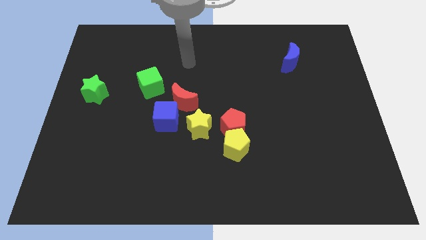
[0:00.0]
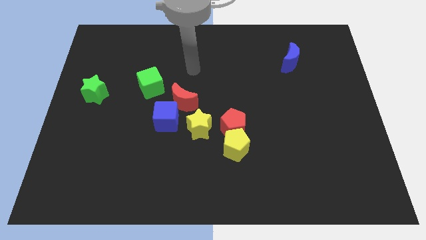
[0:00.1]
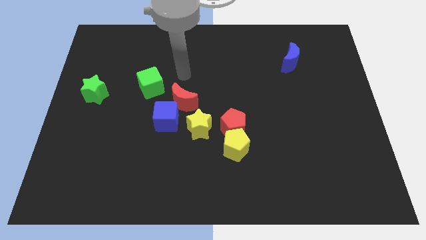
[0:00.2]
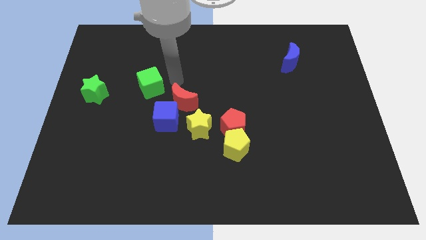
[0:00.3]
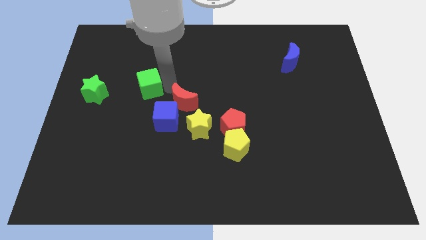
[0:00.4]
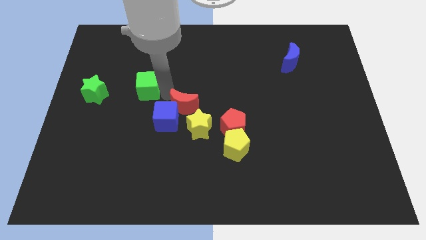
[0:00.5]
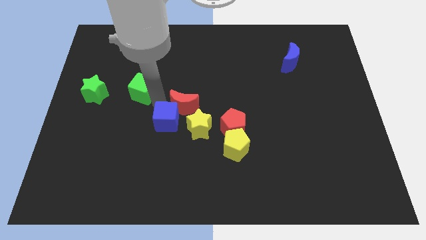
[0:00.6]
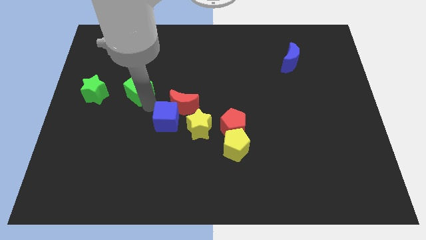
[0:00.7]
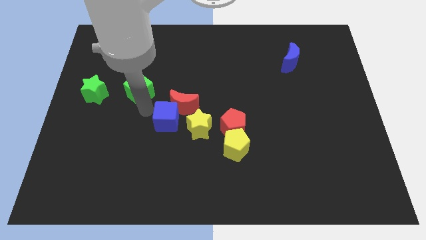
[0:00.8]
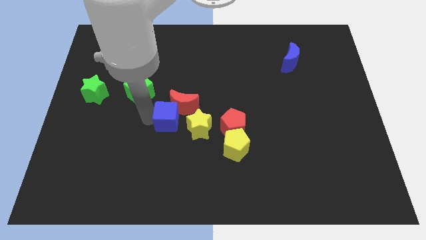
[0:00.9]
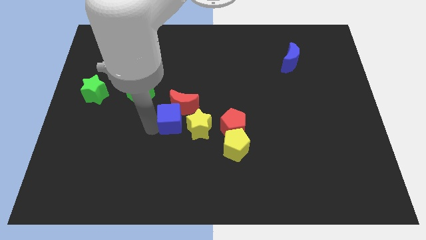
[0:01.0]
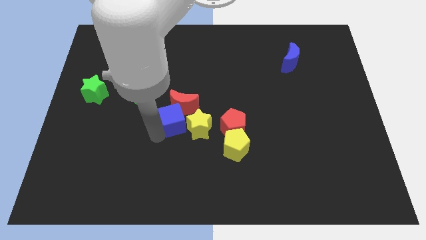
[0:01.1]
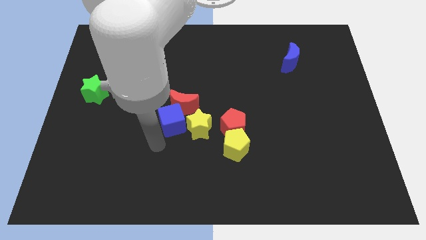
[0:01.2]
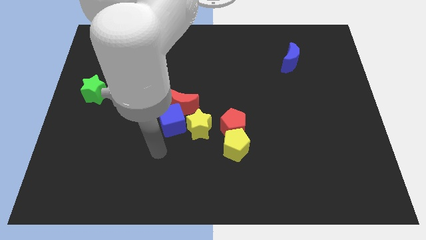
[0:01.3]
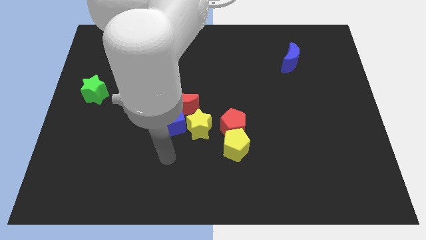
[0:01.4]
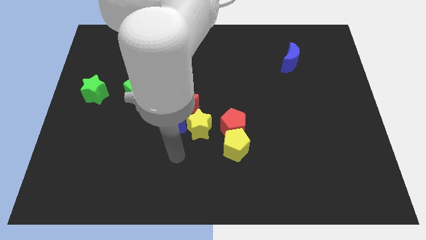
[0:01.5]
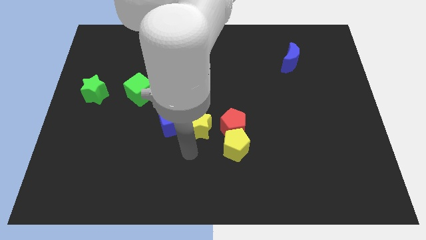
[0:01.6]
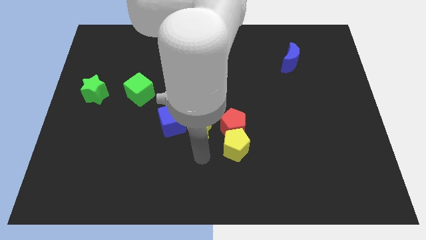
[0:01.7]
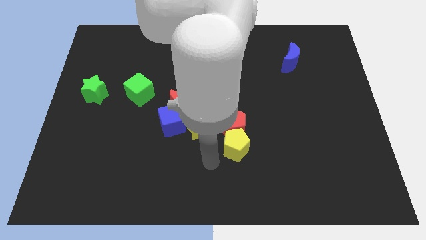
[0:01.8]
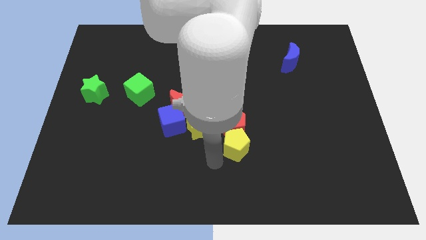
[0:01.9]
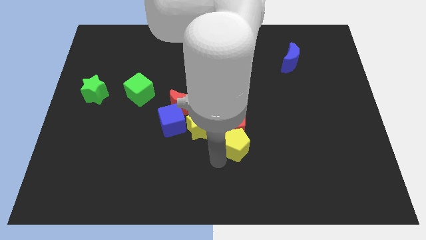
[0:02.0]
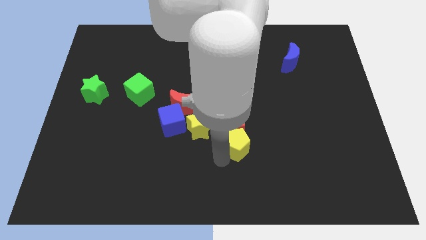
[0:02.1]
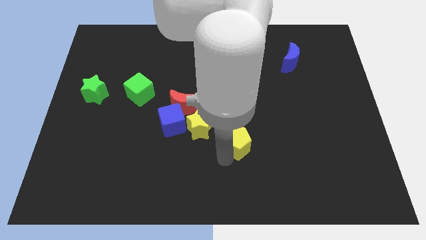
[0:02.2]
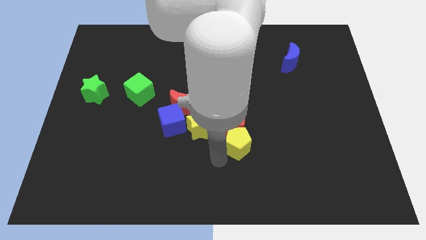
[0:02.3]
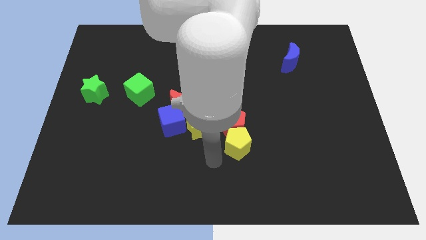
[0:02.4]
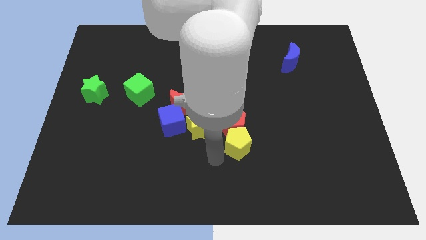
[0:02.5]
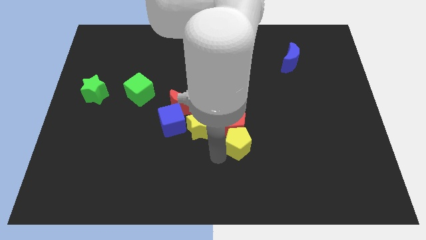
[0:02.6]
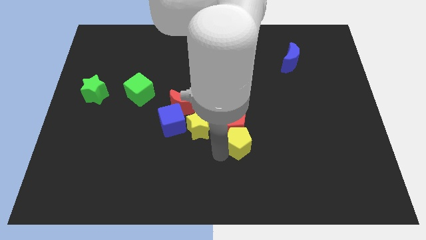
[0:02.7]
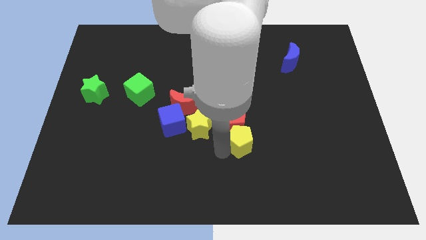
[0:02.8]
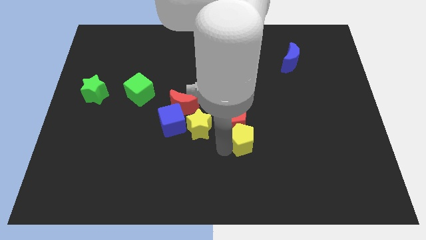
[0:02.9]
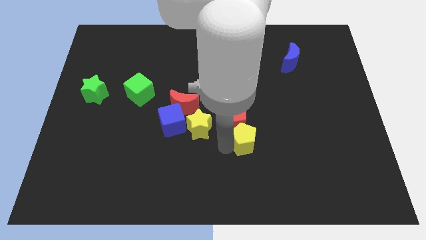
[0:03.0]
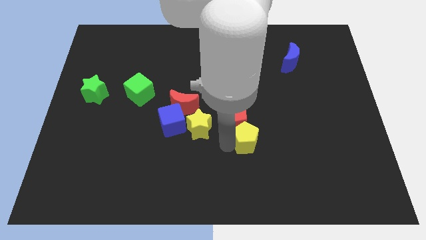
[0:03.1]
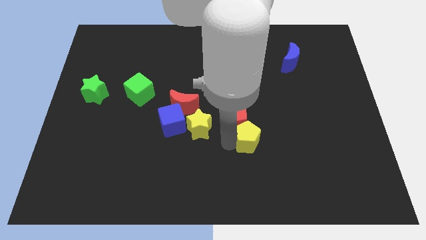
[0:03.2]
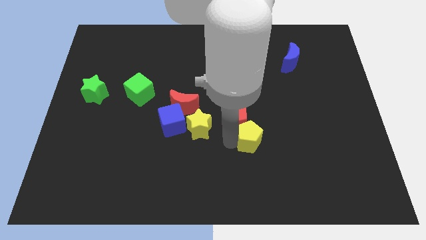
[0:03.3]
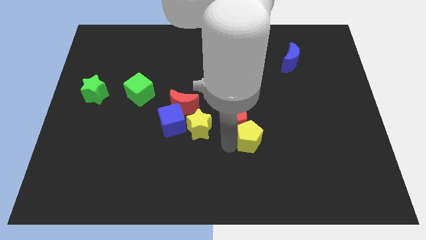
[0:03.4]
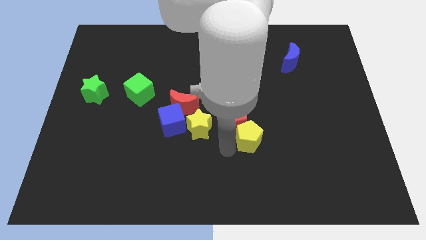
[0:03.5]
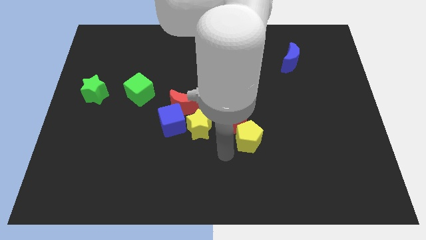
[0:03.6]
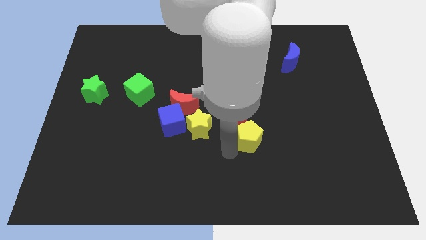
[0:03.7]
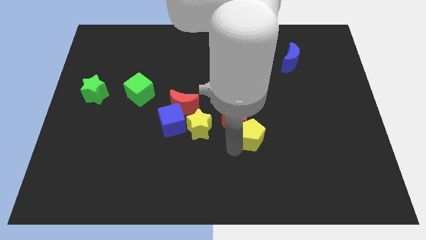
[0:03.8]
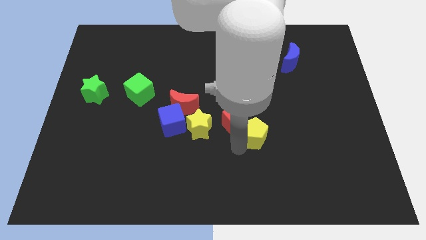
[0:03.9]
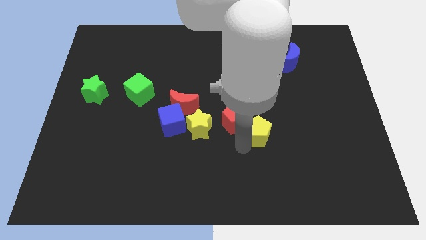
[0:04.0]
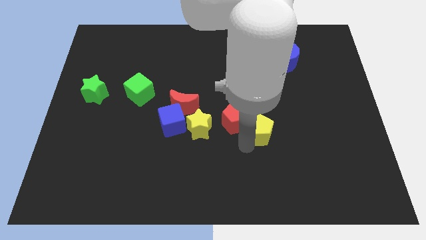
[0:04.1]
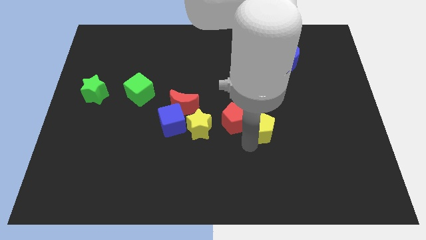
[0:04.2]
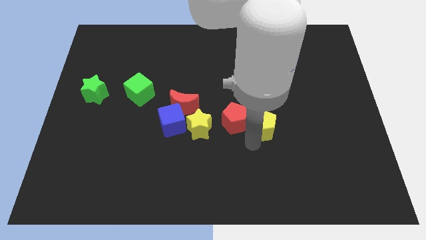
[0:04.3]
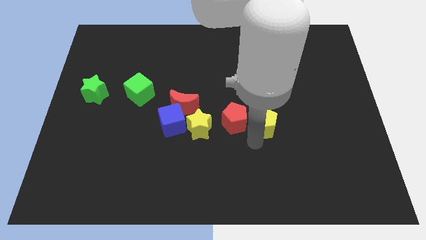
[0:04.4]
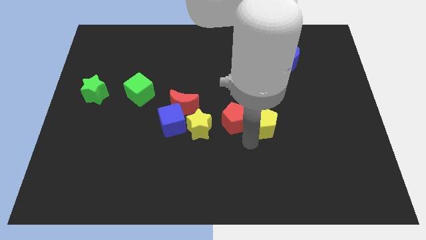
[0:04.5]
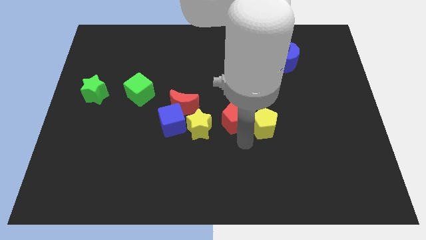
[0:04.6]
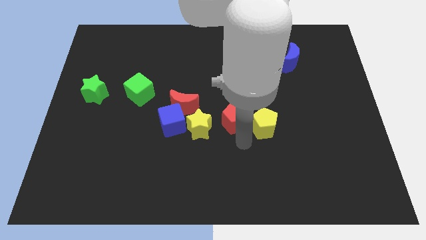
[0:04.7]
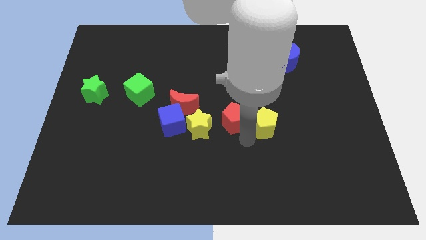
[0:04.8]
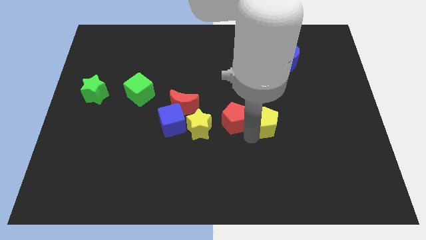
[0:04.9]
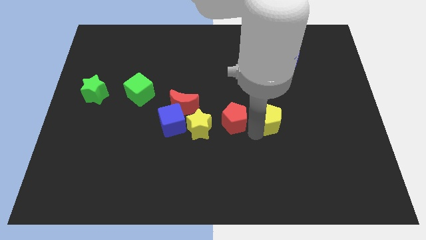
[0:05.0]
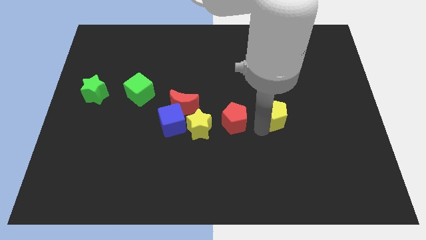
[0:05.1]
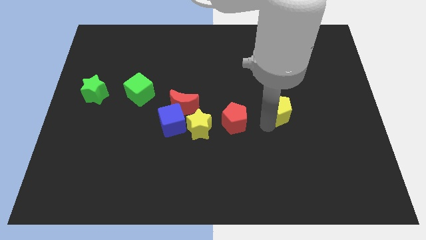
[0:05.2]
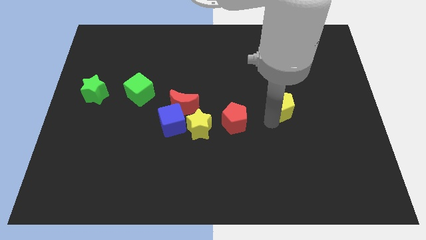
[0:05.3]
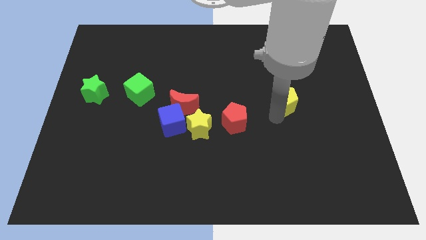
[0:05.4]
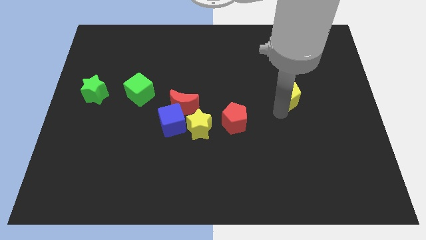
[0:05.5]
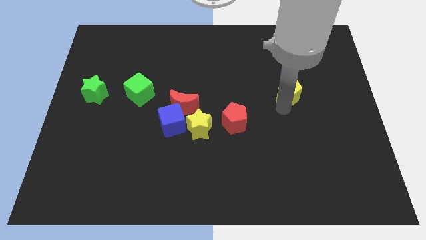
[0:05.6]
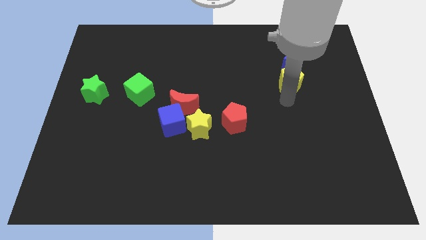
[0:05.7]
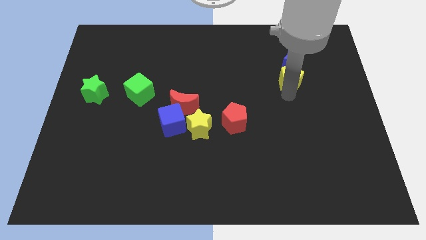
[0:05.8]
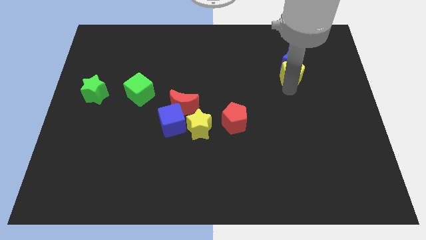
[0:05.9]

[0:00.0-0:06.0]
push the yellow pentagon next to the blue moon

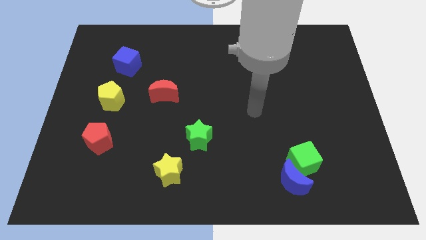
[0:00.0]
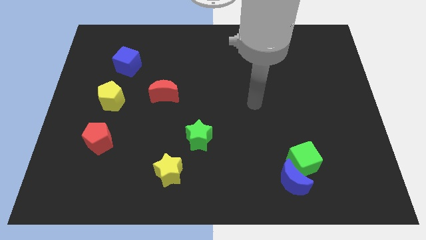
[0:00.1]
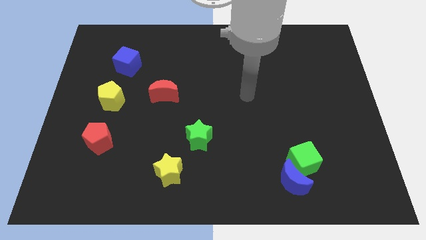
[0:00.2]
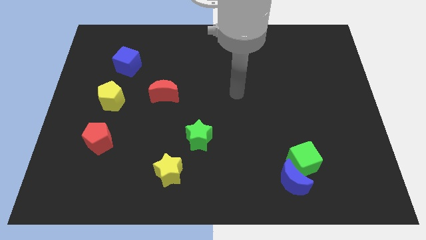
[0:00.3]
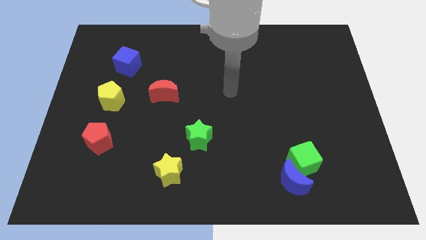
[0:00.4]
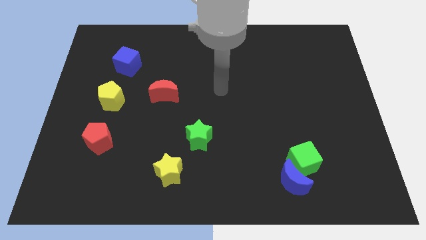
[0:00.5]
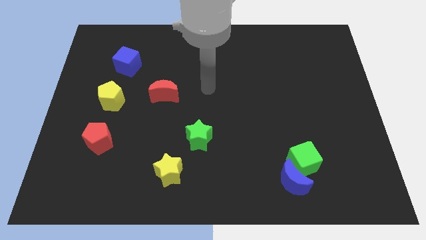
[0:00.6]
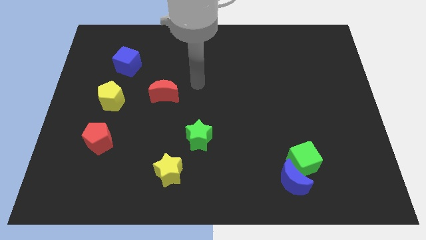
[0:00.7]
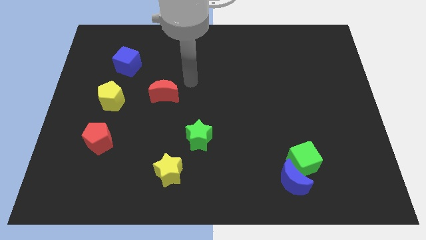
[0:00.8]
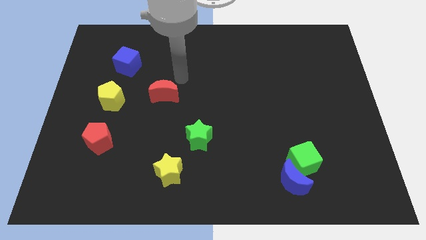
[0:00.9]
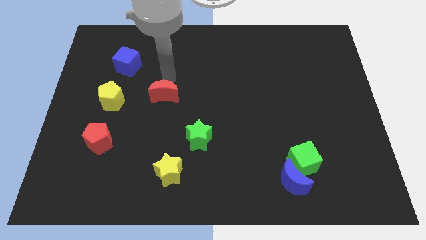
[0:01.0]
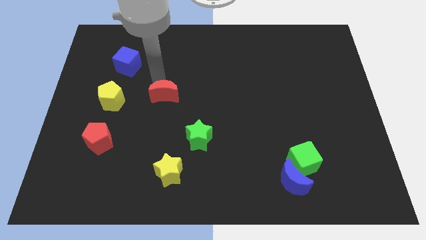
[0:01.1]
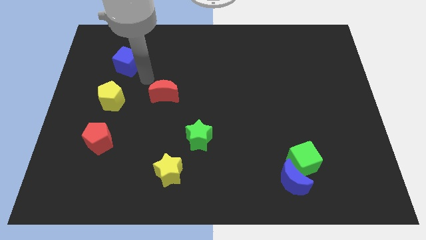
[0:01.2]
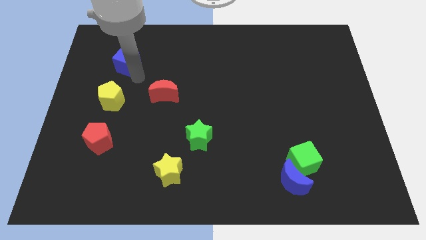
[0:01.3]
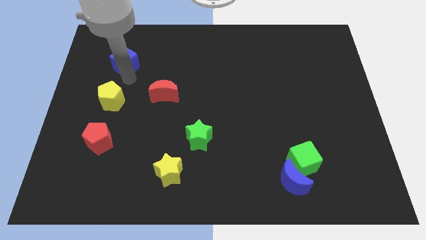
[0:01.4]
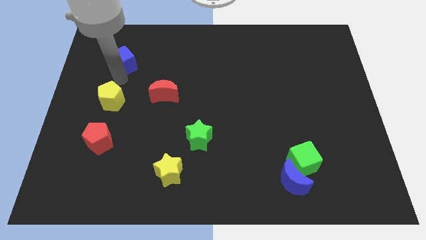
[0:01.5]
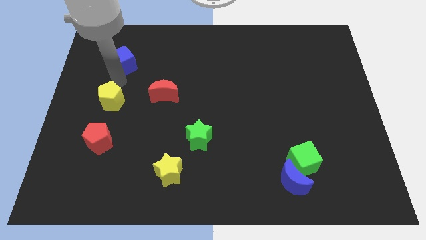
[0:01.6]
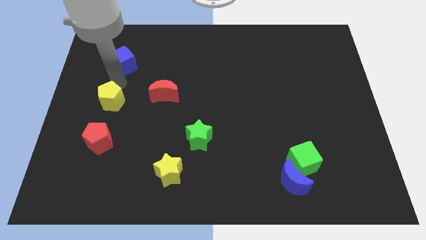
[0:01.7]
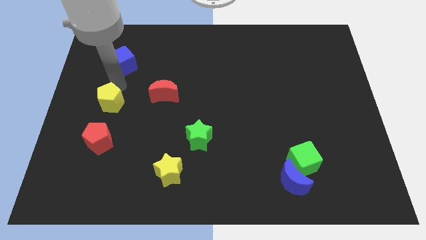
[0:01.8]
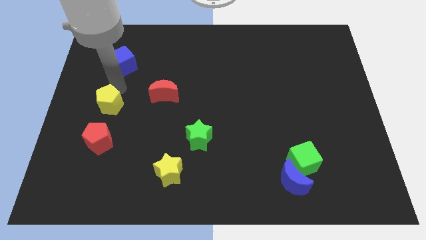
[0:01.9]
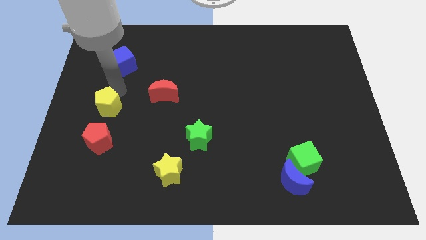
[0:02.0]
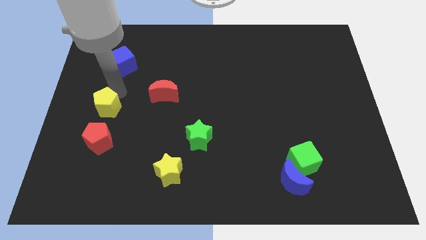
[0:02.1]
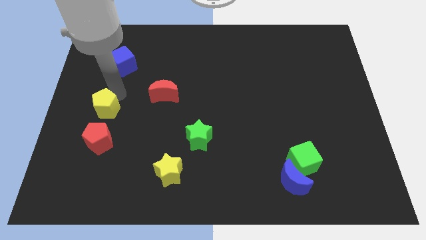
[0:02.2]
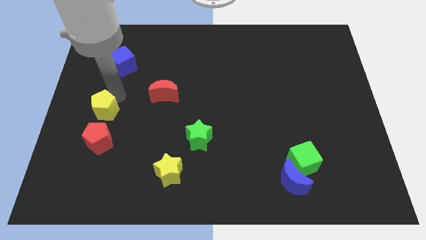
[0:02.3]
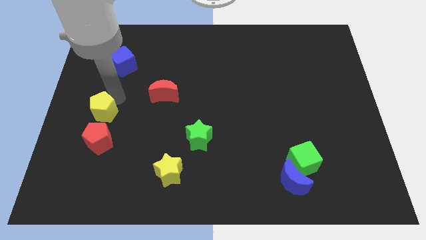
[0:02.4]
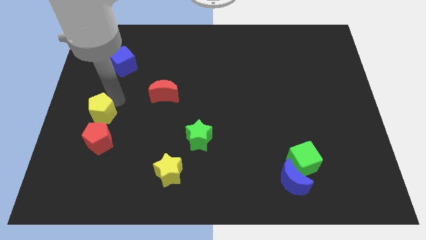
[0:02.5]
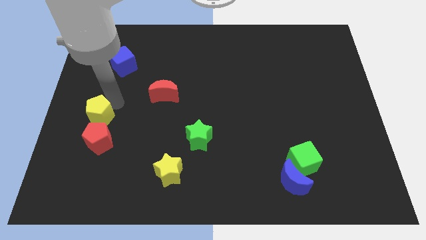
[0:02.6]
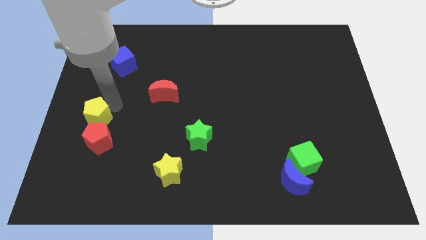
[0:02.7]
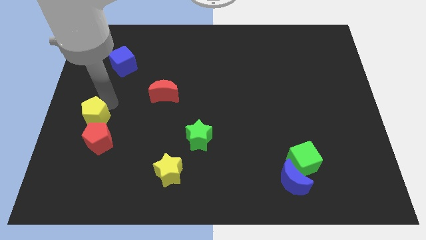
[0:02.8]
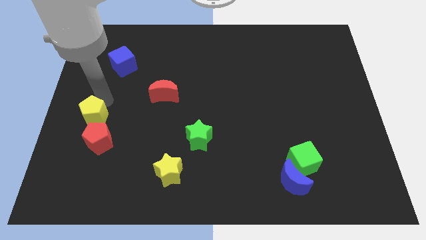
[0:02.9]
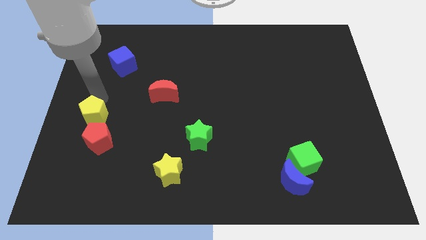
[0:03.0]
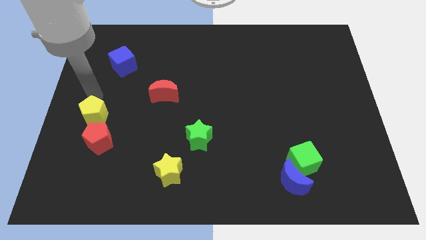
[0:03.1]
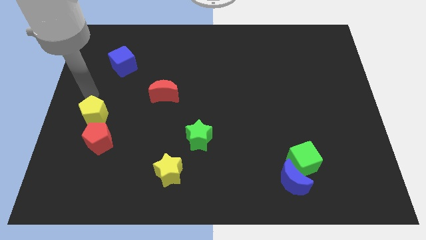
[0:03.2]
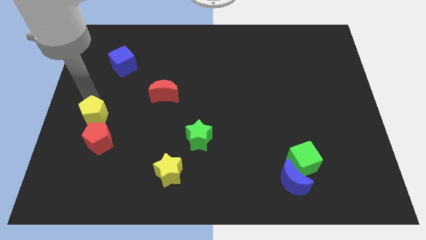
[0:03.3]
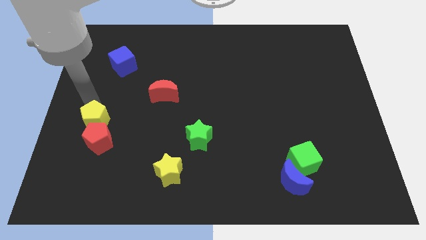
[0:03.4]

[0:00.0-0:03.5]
slide the yellow pentagon towards the red pentagon
